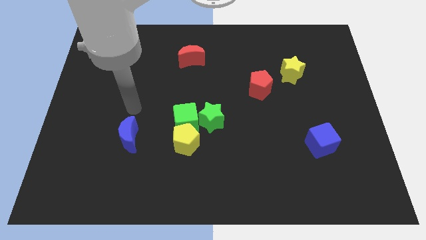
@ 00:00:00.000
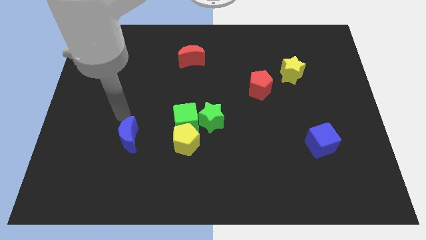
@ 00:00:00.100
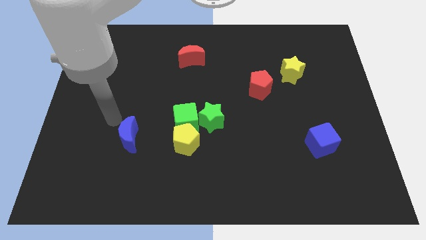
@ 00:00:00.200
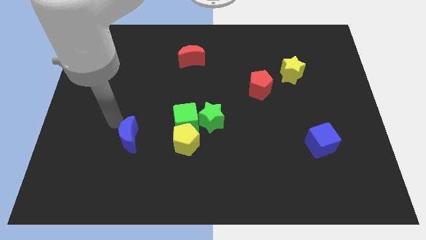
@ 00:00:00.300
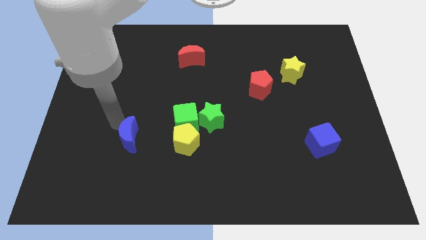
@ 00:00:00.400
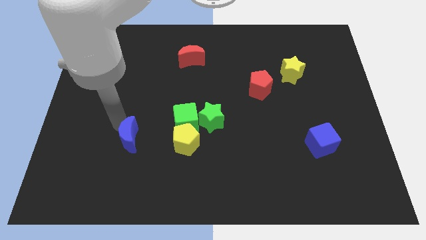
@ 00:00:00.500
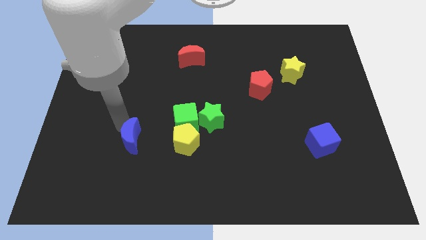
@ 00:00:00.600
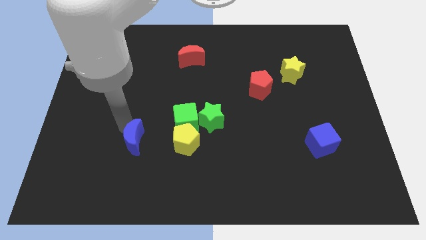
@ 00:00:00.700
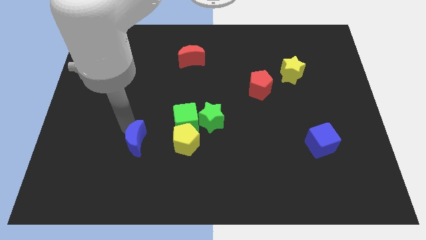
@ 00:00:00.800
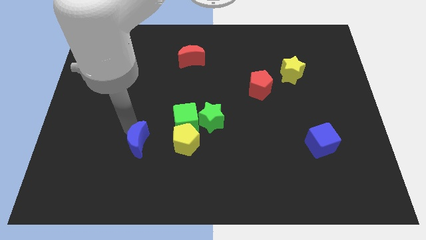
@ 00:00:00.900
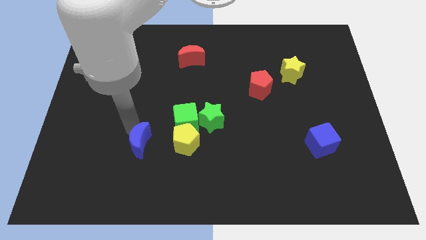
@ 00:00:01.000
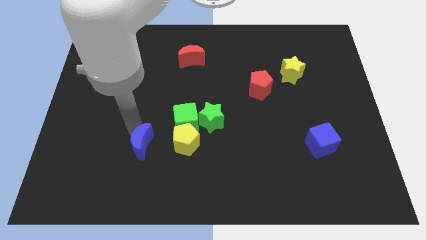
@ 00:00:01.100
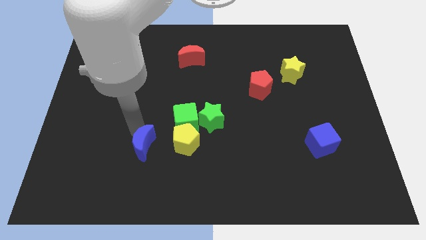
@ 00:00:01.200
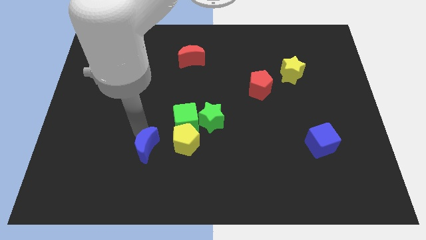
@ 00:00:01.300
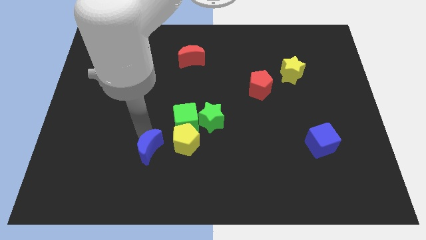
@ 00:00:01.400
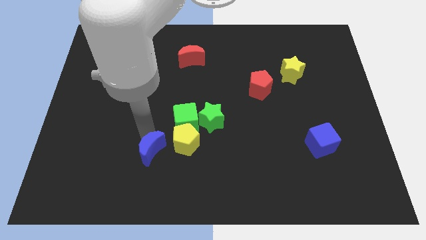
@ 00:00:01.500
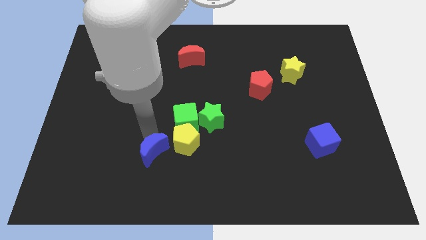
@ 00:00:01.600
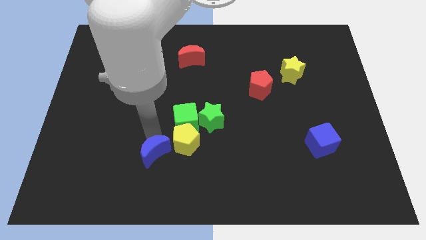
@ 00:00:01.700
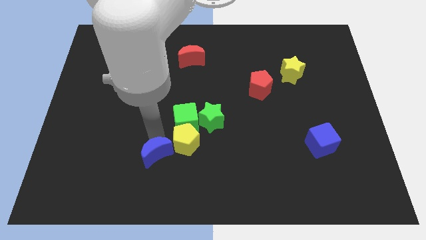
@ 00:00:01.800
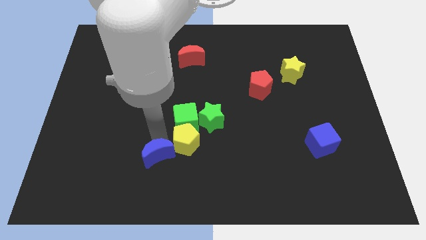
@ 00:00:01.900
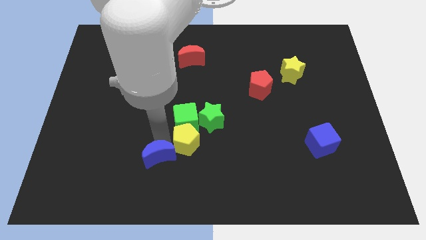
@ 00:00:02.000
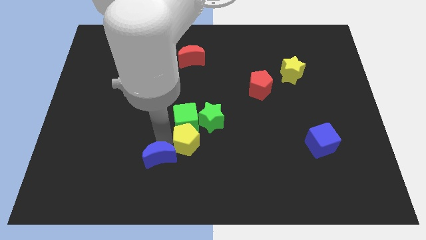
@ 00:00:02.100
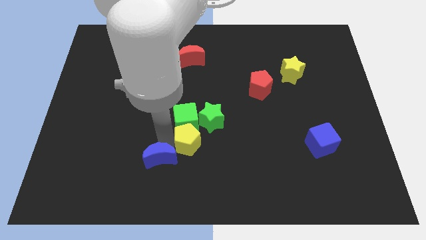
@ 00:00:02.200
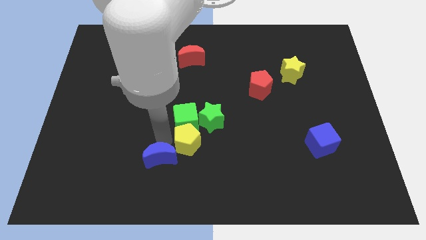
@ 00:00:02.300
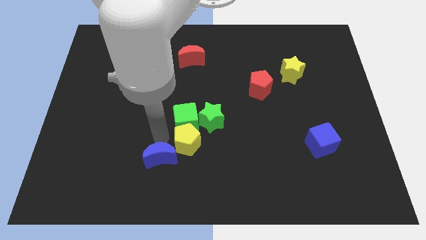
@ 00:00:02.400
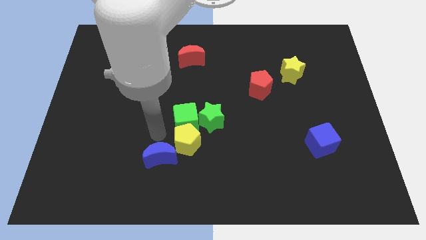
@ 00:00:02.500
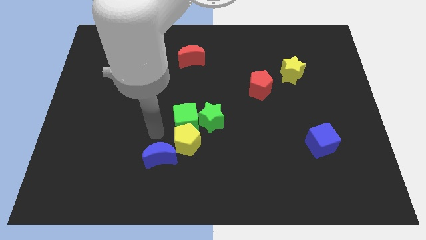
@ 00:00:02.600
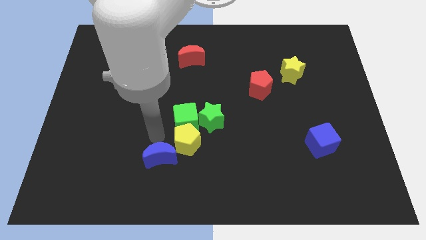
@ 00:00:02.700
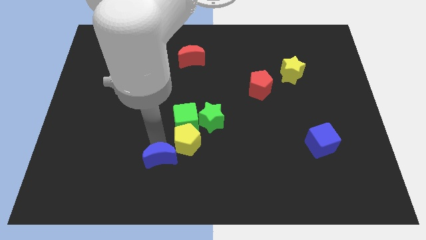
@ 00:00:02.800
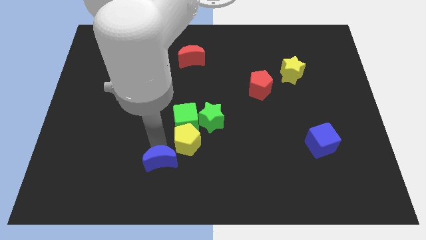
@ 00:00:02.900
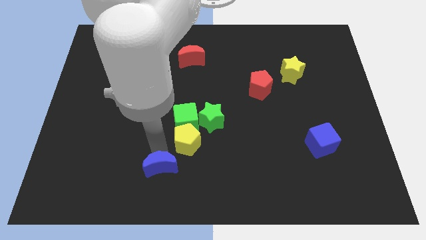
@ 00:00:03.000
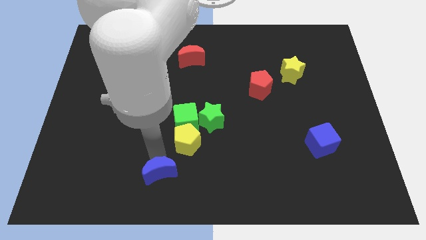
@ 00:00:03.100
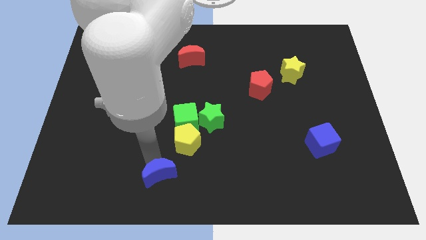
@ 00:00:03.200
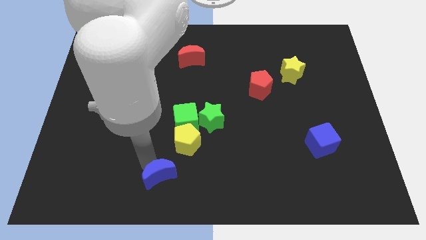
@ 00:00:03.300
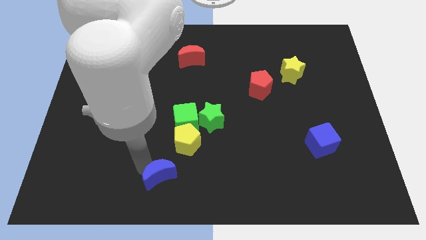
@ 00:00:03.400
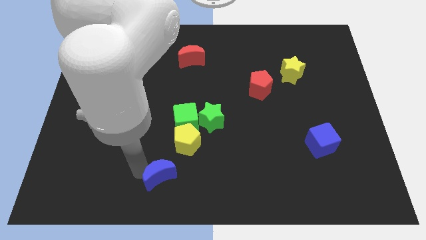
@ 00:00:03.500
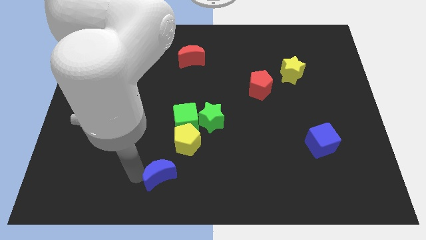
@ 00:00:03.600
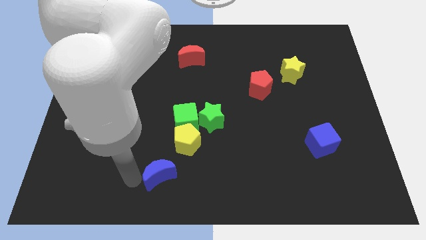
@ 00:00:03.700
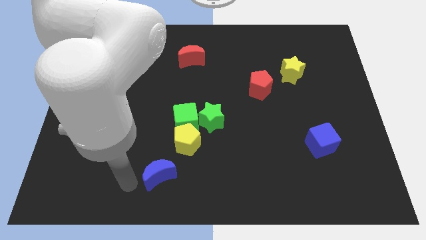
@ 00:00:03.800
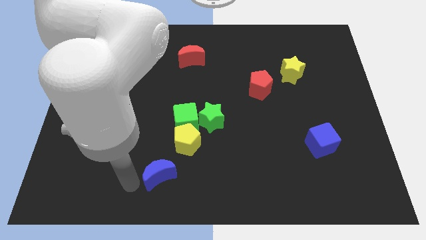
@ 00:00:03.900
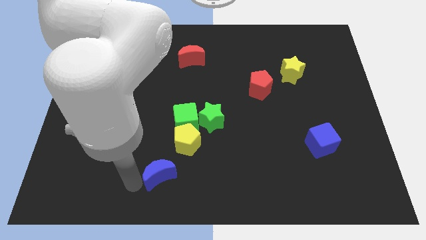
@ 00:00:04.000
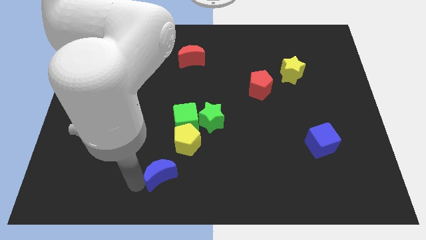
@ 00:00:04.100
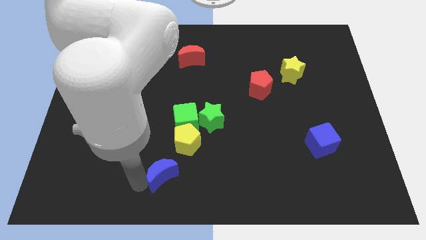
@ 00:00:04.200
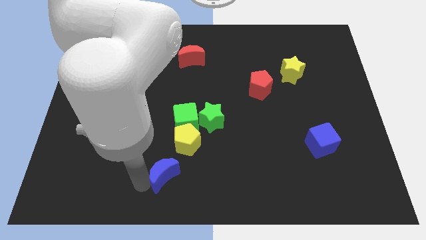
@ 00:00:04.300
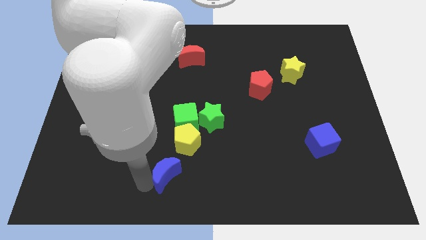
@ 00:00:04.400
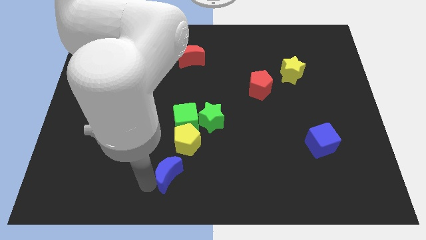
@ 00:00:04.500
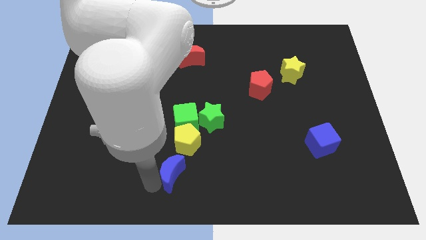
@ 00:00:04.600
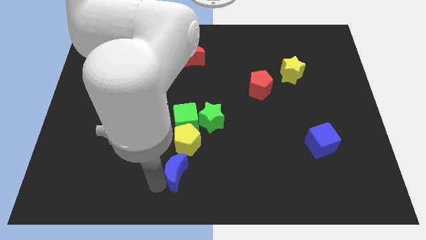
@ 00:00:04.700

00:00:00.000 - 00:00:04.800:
slide the blue moon to the right a little bit

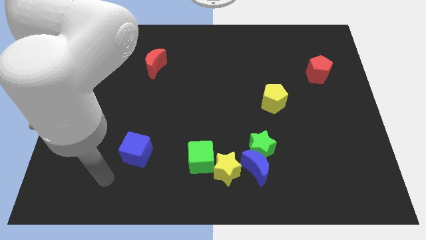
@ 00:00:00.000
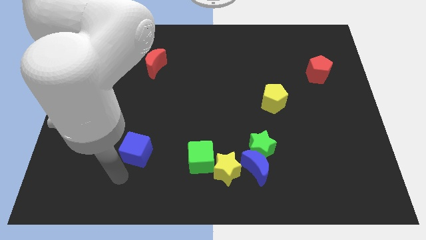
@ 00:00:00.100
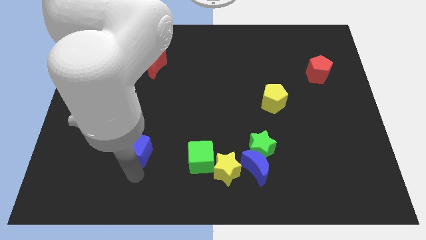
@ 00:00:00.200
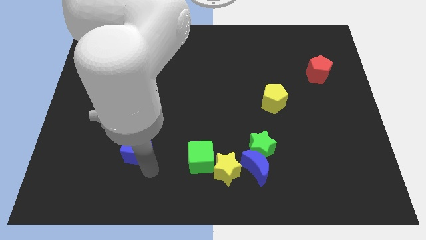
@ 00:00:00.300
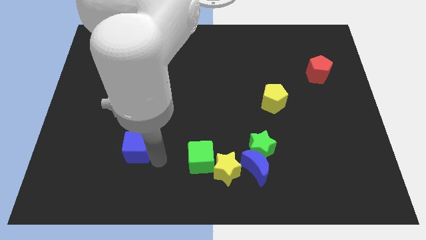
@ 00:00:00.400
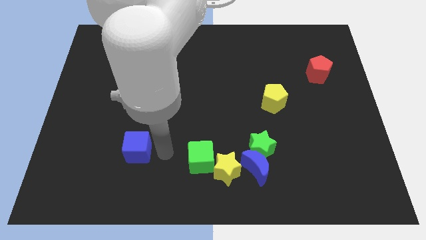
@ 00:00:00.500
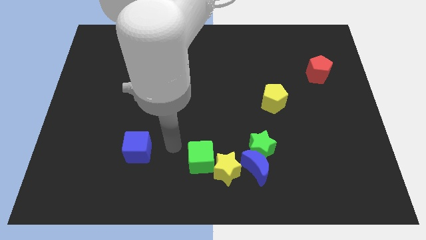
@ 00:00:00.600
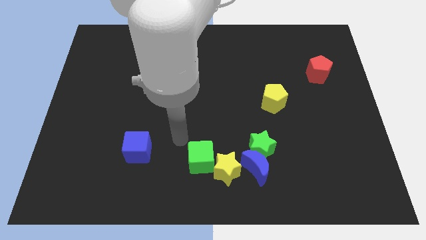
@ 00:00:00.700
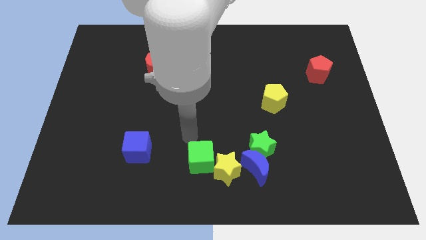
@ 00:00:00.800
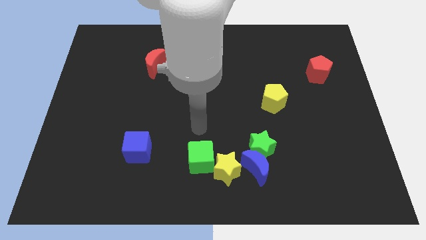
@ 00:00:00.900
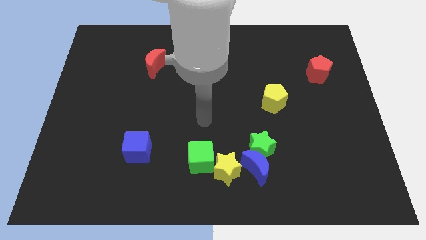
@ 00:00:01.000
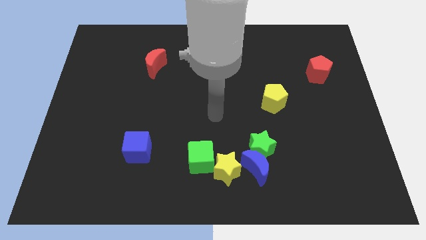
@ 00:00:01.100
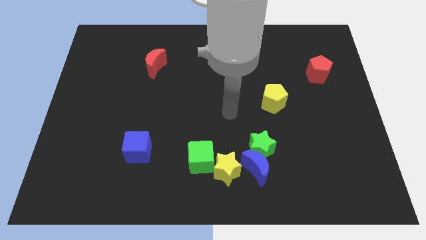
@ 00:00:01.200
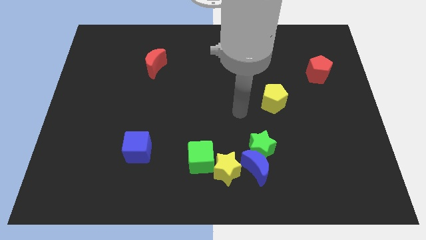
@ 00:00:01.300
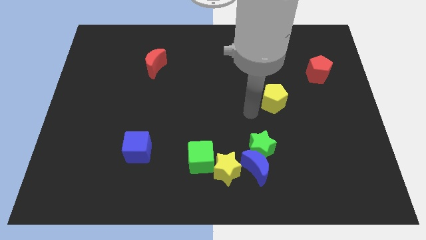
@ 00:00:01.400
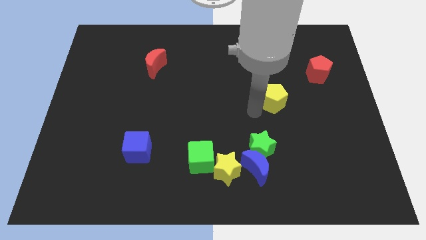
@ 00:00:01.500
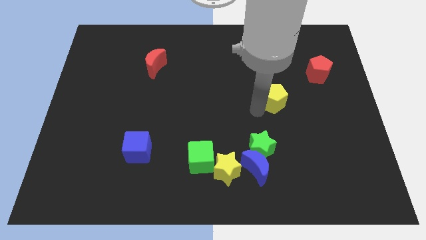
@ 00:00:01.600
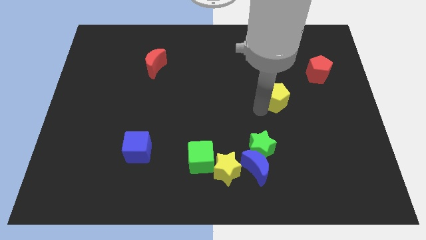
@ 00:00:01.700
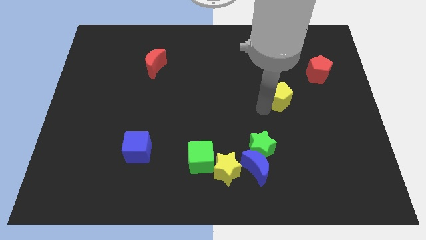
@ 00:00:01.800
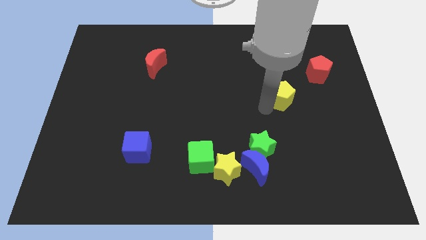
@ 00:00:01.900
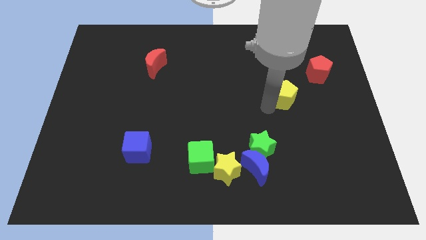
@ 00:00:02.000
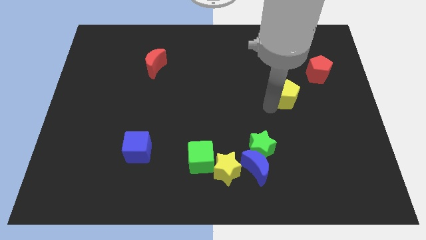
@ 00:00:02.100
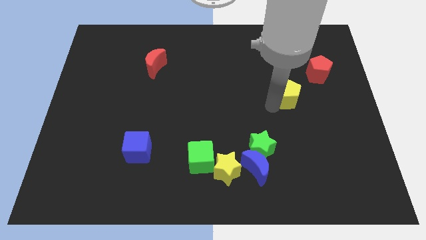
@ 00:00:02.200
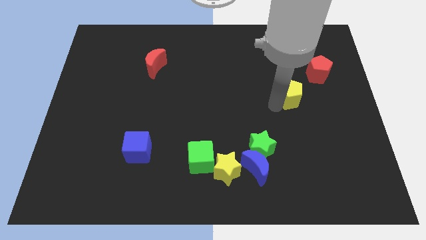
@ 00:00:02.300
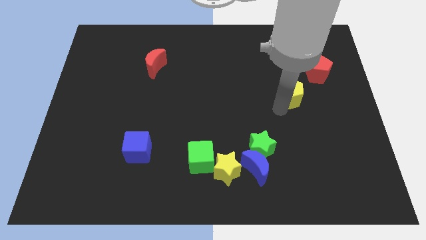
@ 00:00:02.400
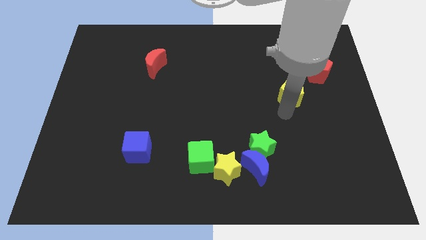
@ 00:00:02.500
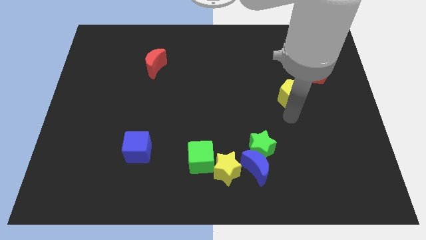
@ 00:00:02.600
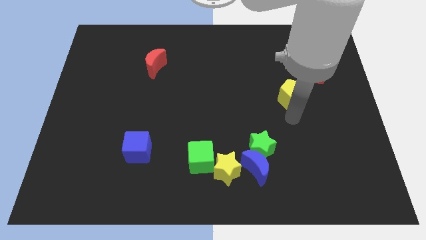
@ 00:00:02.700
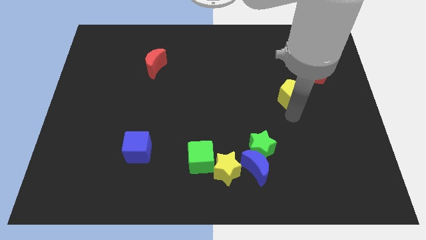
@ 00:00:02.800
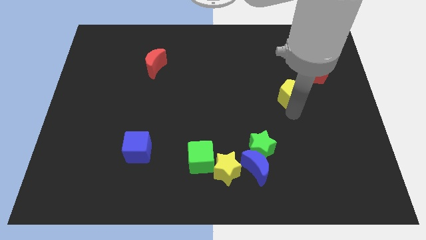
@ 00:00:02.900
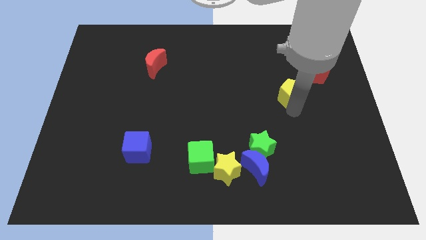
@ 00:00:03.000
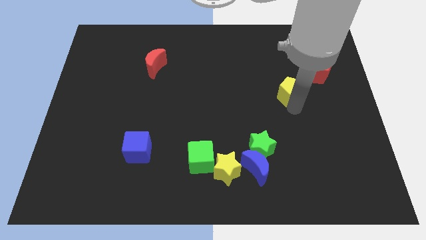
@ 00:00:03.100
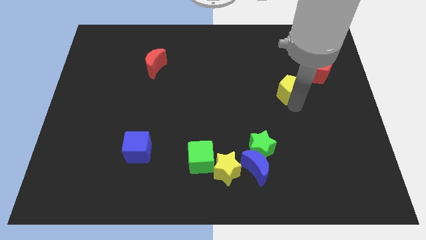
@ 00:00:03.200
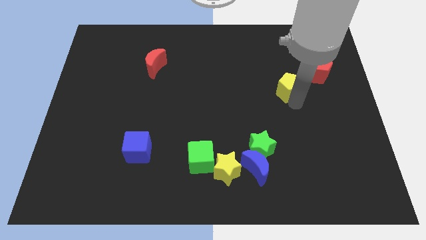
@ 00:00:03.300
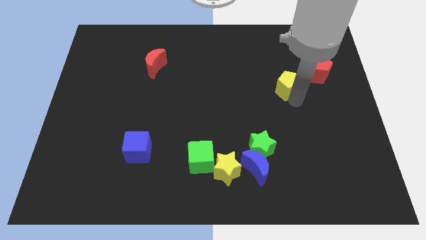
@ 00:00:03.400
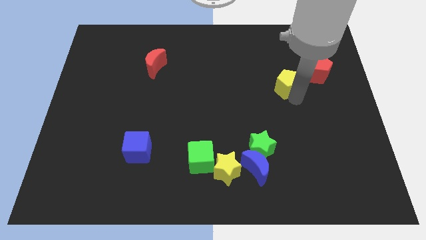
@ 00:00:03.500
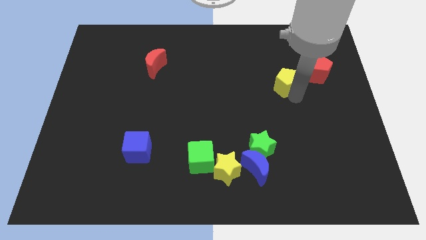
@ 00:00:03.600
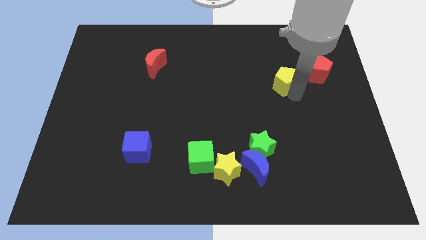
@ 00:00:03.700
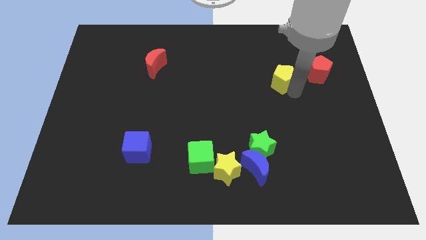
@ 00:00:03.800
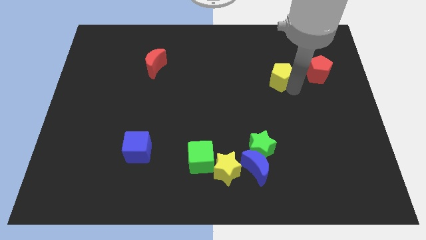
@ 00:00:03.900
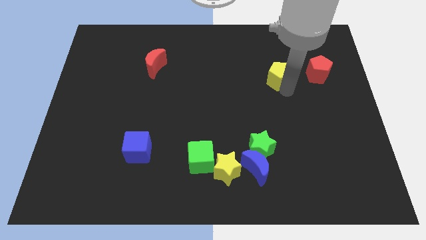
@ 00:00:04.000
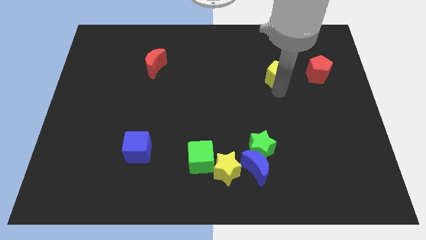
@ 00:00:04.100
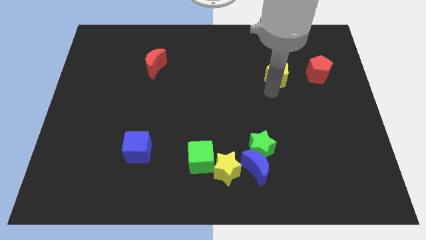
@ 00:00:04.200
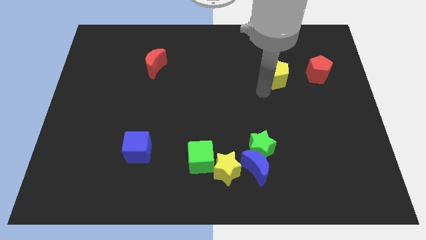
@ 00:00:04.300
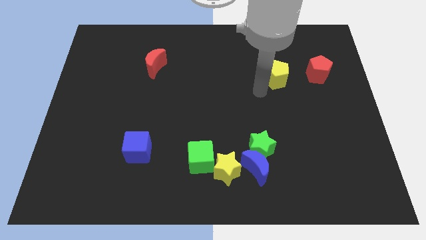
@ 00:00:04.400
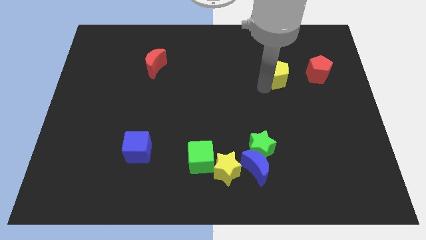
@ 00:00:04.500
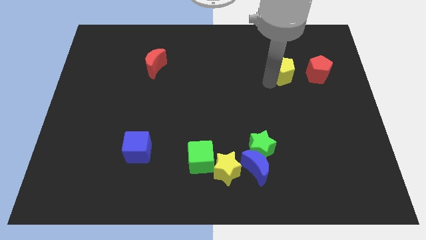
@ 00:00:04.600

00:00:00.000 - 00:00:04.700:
push the yellow pentagon somewhat up and to the right diagonally
